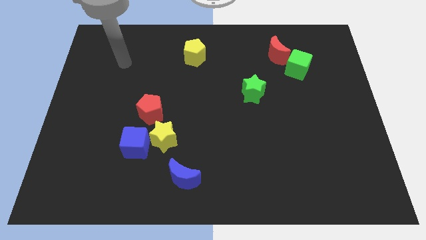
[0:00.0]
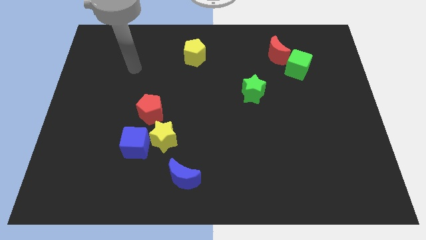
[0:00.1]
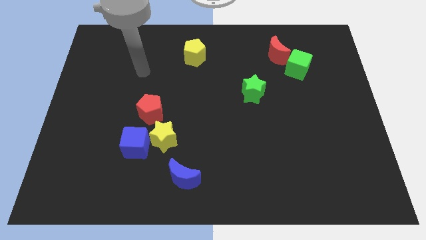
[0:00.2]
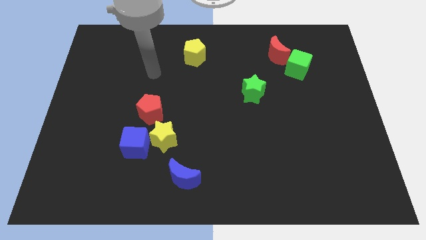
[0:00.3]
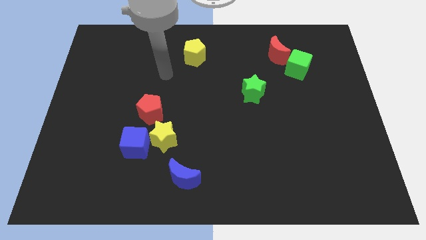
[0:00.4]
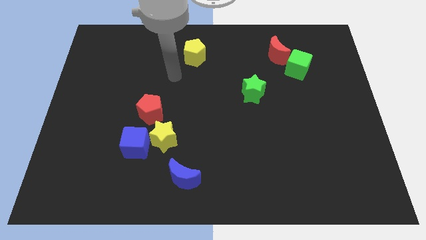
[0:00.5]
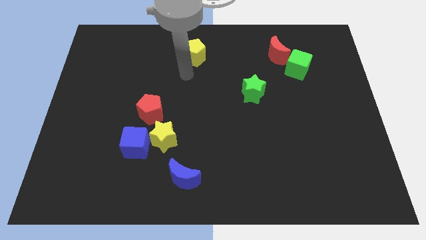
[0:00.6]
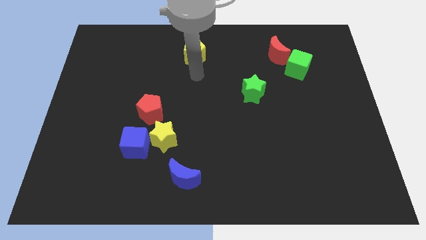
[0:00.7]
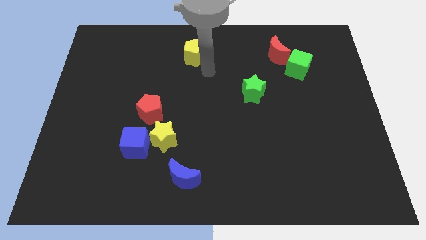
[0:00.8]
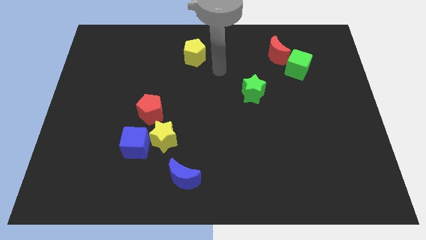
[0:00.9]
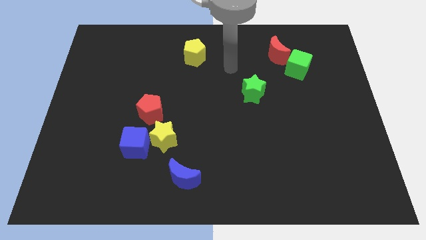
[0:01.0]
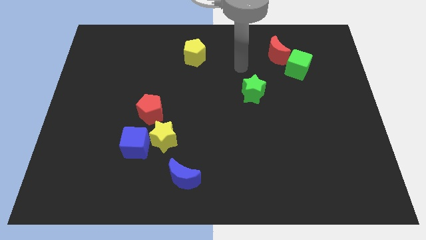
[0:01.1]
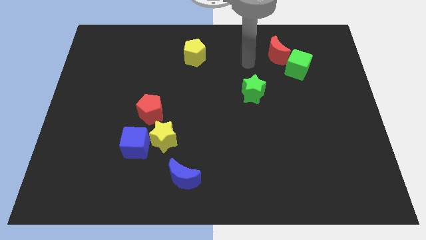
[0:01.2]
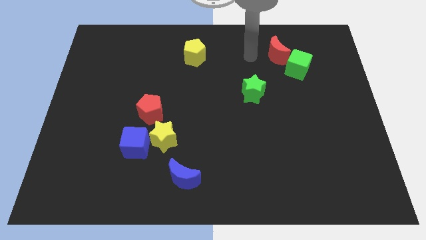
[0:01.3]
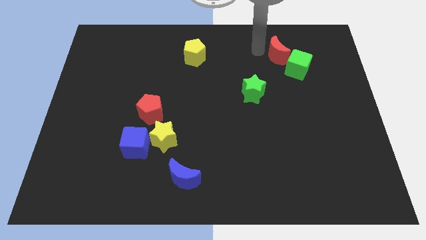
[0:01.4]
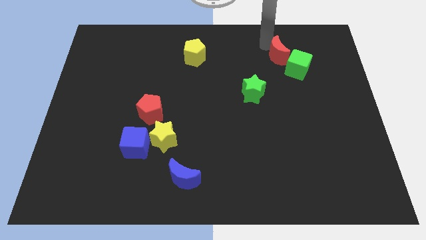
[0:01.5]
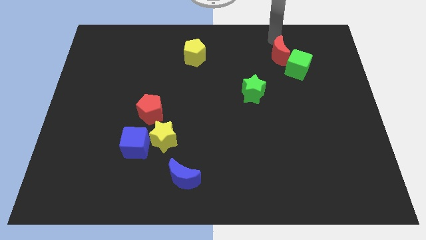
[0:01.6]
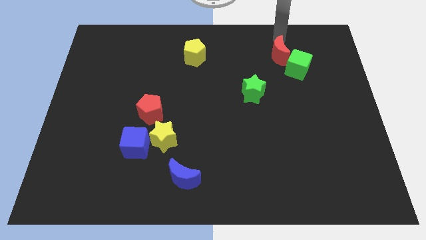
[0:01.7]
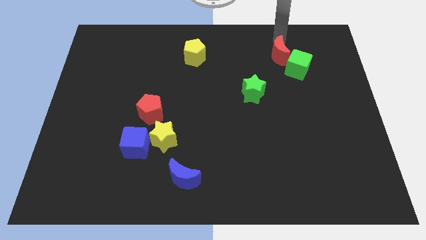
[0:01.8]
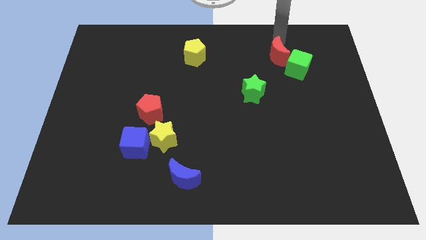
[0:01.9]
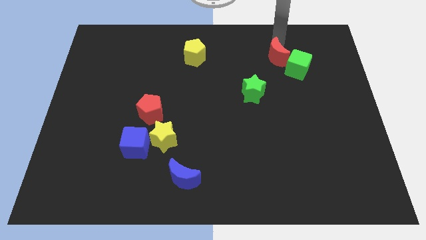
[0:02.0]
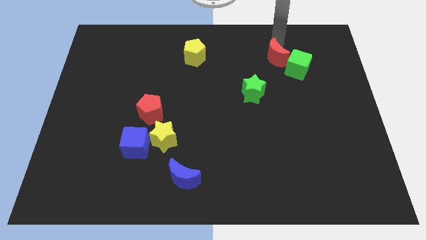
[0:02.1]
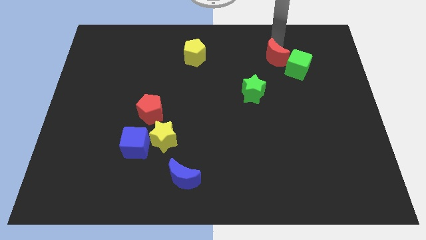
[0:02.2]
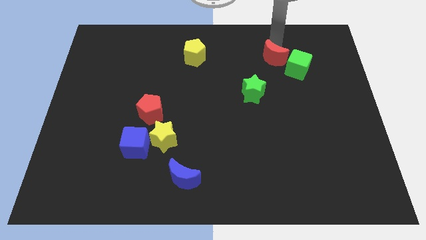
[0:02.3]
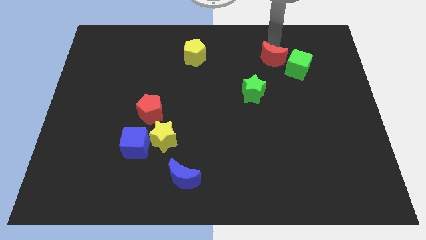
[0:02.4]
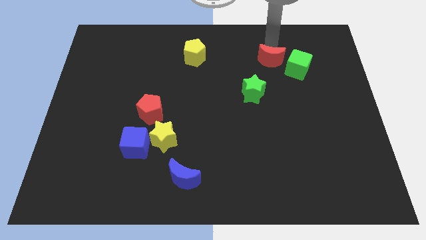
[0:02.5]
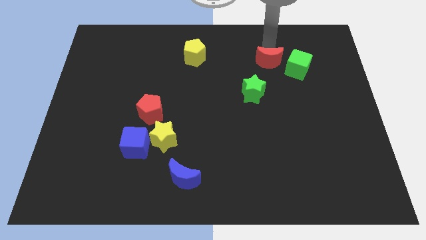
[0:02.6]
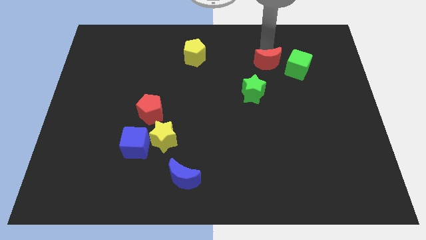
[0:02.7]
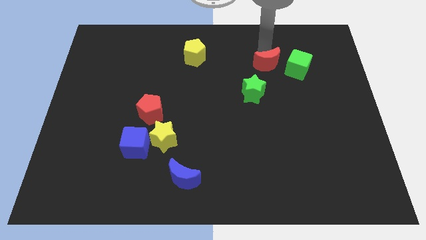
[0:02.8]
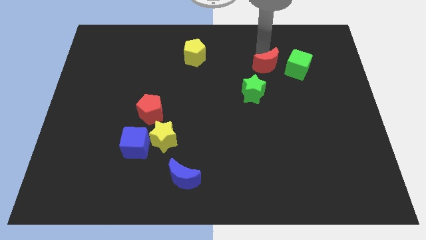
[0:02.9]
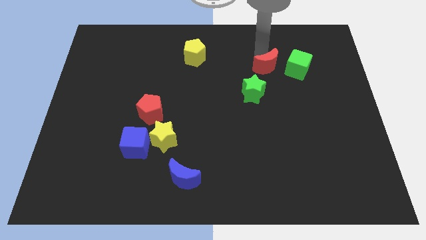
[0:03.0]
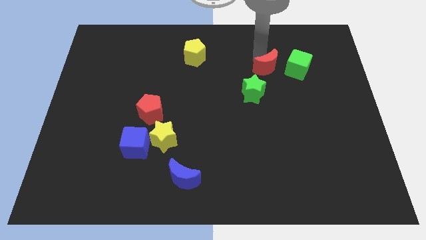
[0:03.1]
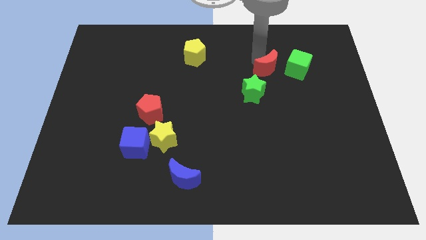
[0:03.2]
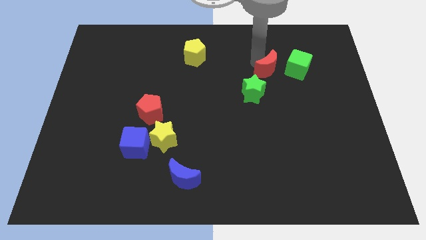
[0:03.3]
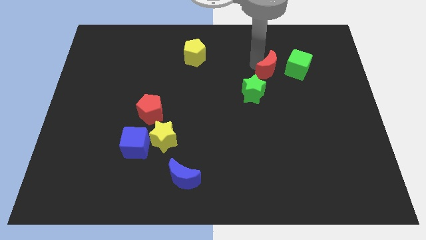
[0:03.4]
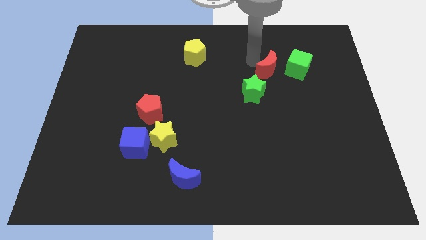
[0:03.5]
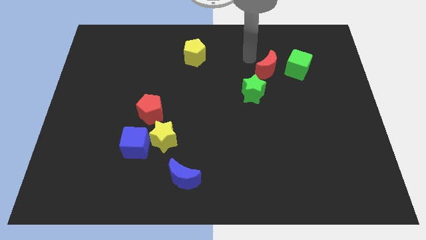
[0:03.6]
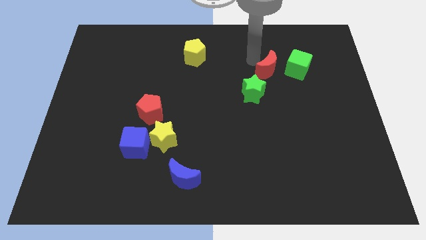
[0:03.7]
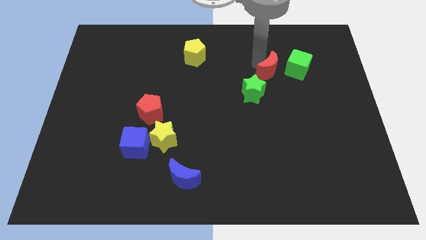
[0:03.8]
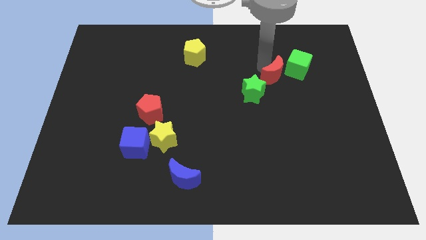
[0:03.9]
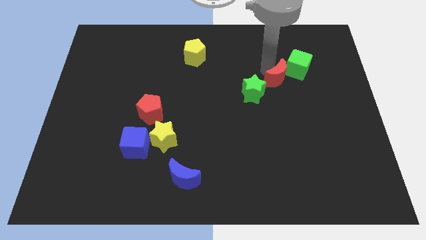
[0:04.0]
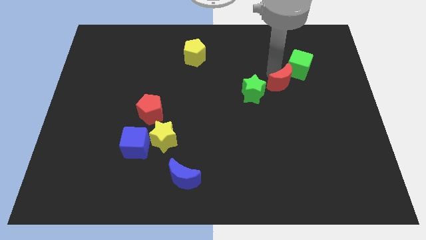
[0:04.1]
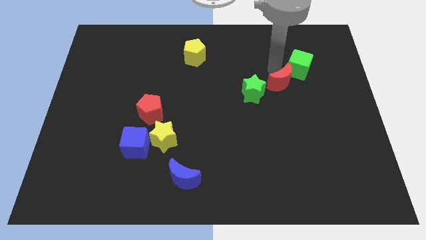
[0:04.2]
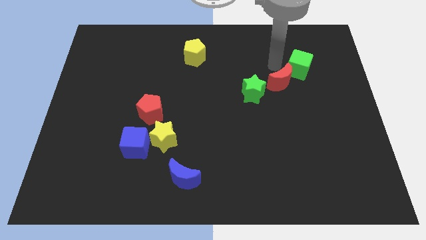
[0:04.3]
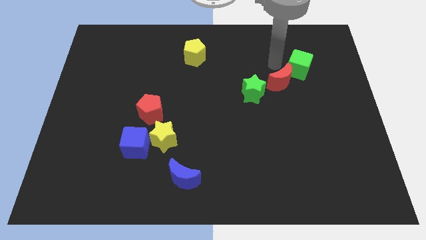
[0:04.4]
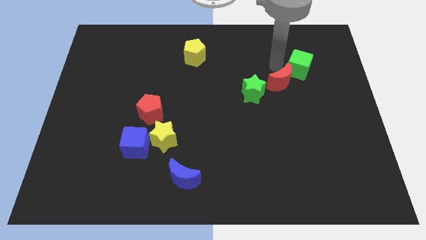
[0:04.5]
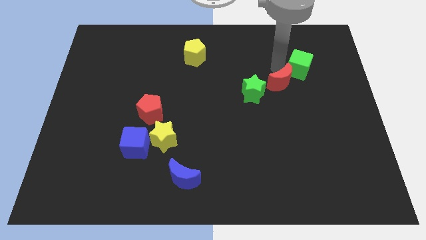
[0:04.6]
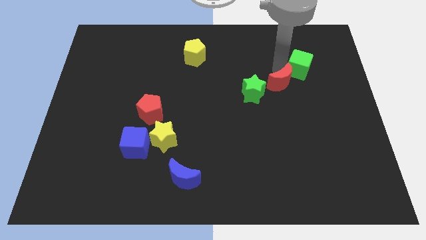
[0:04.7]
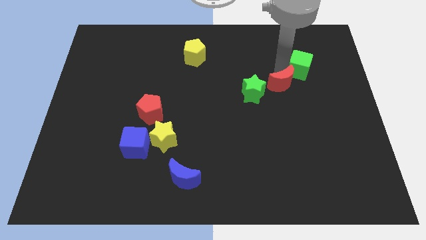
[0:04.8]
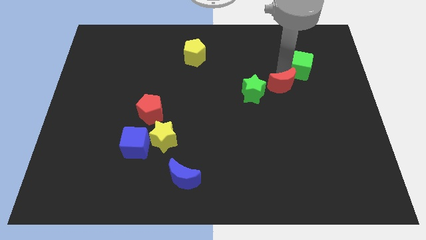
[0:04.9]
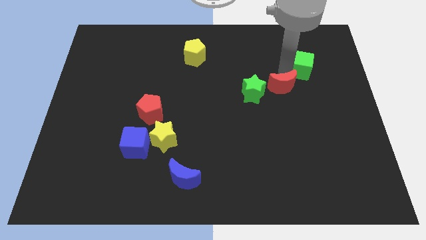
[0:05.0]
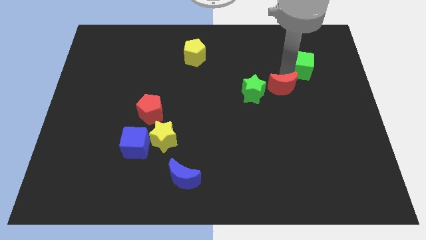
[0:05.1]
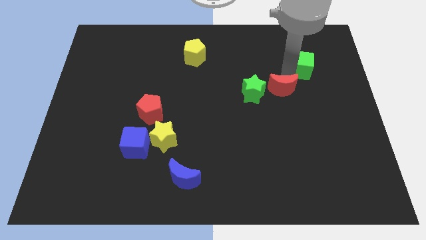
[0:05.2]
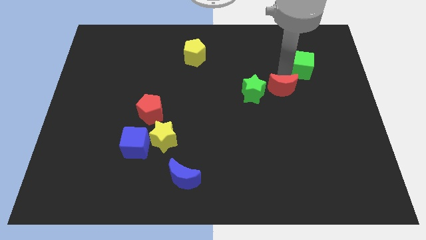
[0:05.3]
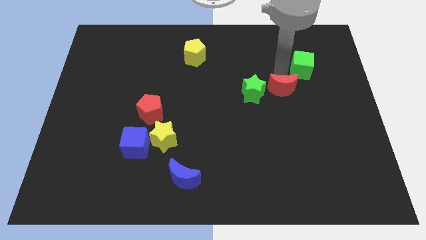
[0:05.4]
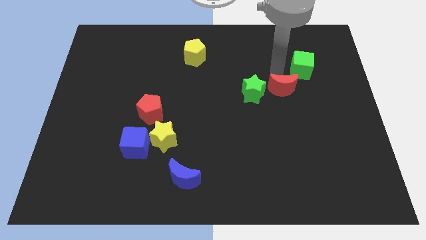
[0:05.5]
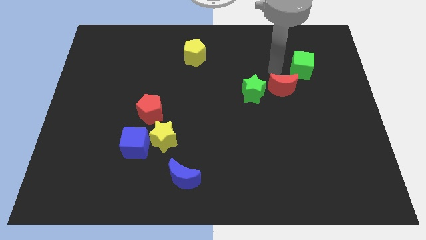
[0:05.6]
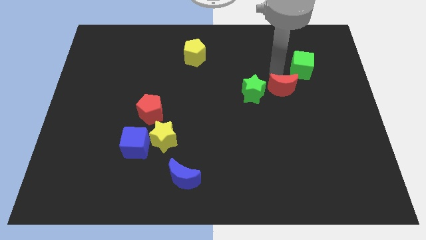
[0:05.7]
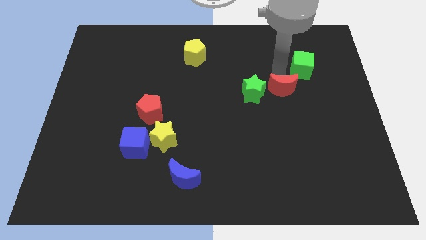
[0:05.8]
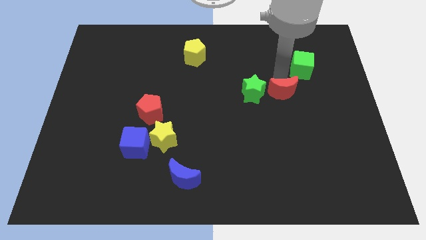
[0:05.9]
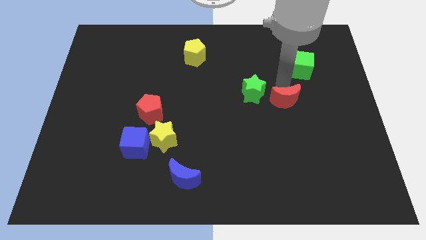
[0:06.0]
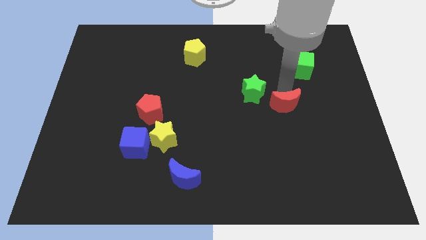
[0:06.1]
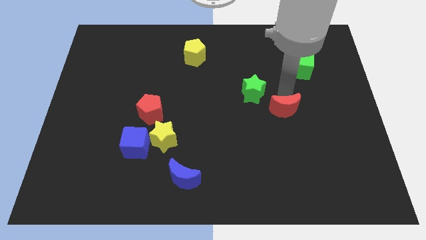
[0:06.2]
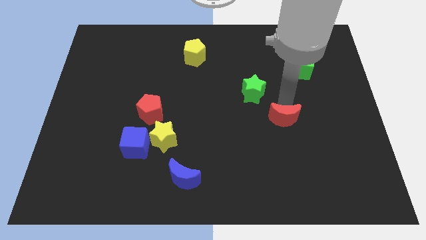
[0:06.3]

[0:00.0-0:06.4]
slide the red moon down

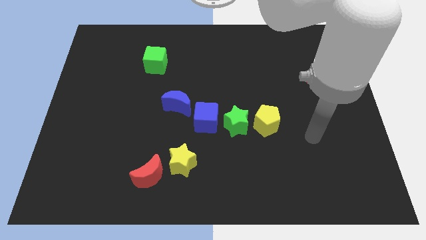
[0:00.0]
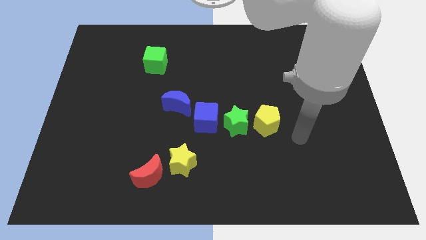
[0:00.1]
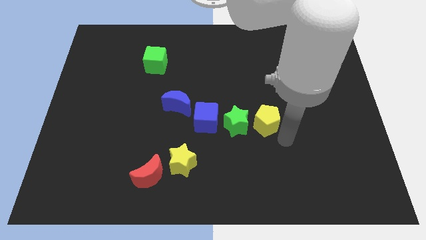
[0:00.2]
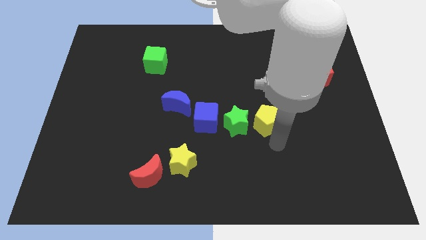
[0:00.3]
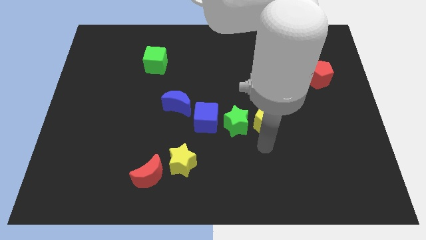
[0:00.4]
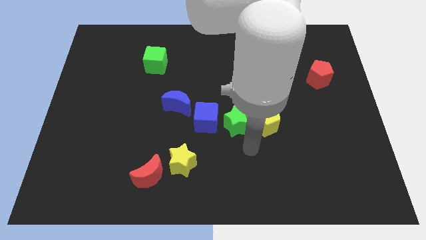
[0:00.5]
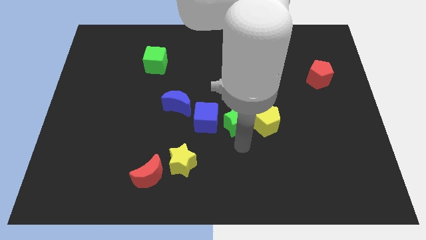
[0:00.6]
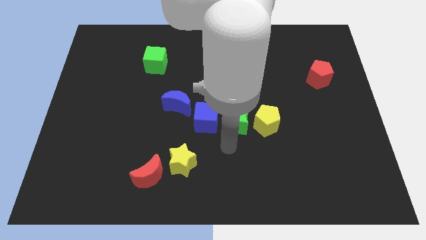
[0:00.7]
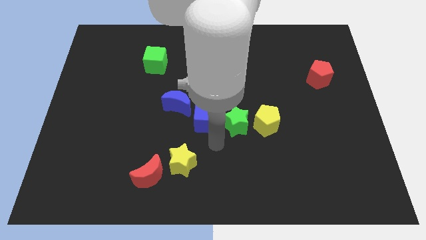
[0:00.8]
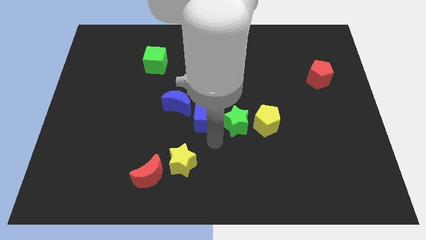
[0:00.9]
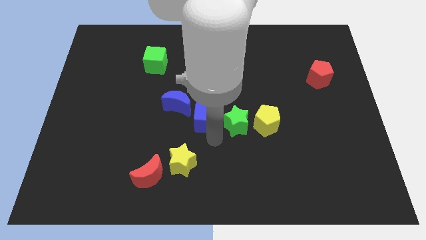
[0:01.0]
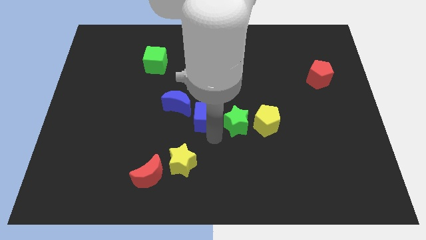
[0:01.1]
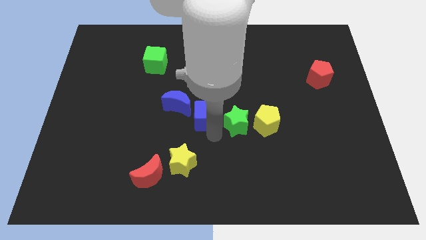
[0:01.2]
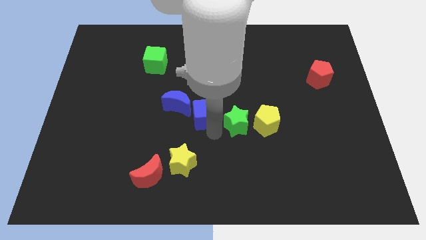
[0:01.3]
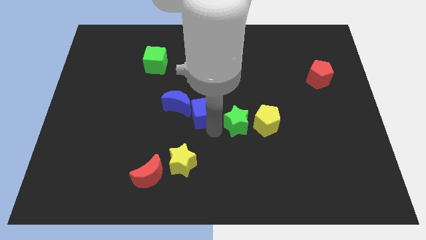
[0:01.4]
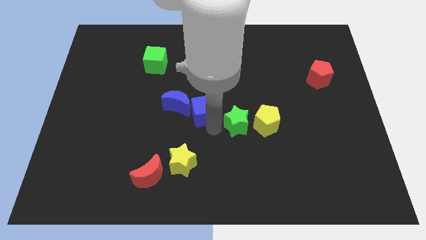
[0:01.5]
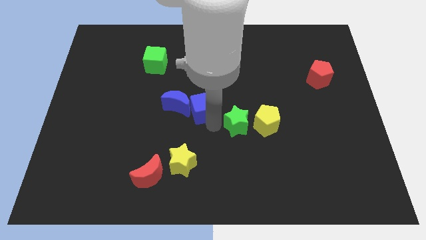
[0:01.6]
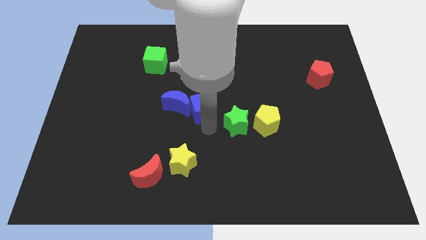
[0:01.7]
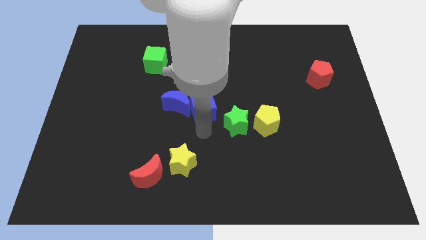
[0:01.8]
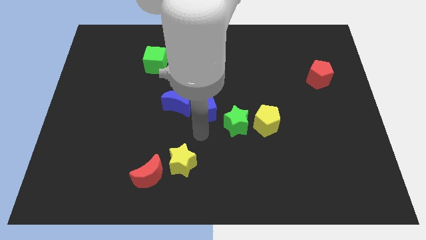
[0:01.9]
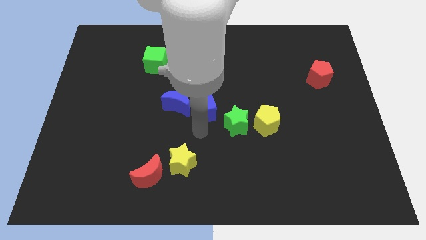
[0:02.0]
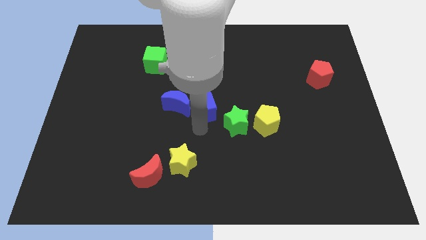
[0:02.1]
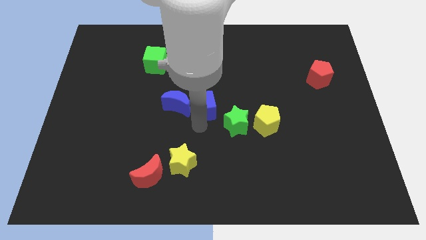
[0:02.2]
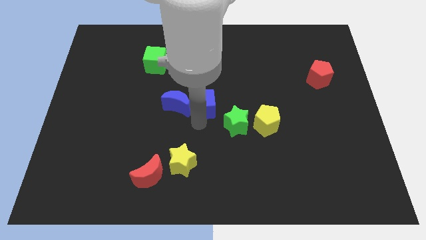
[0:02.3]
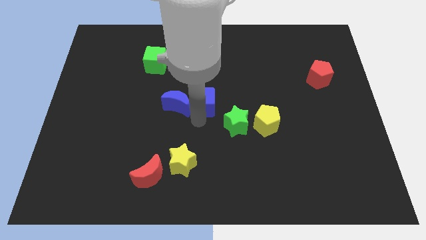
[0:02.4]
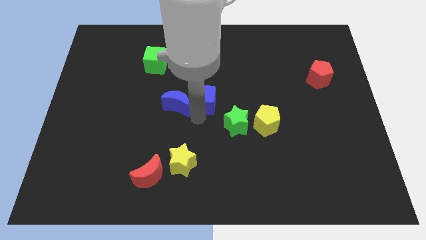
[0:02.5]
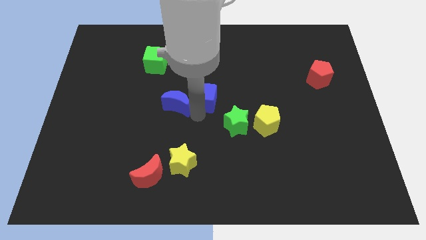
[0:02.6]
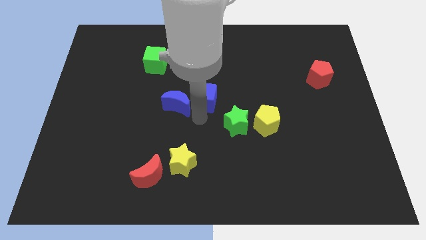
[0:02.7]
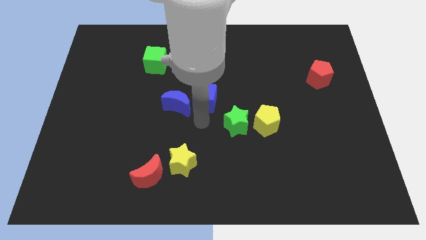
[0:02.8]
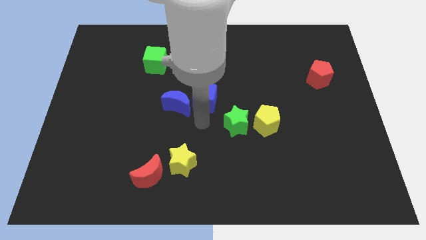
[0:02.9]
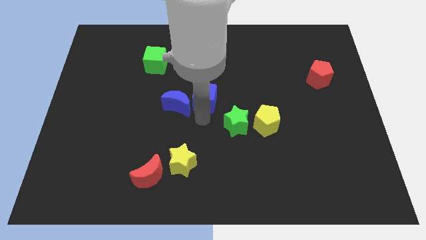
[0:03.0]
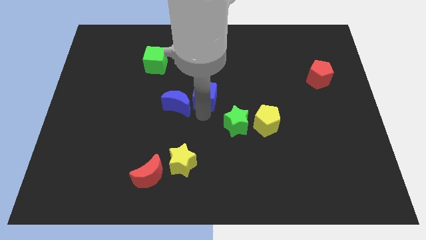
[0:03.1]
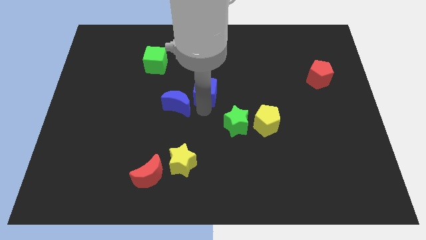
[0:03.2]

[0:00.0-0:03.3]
slide the blue cube up slightly
